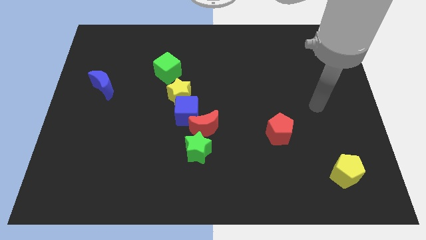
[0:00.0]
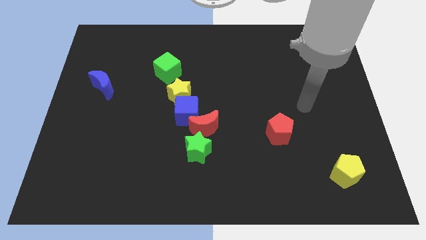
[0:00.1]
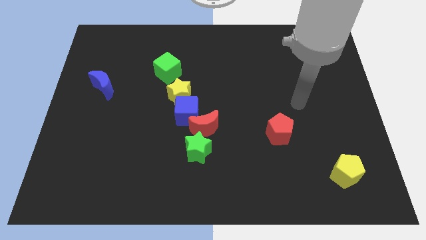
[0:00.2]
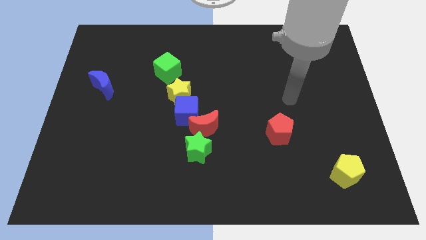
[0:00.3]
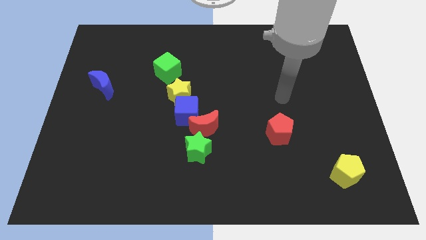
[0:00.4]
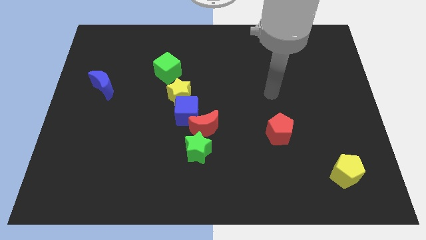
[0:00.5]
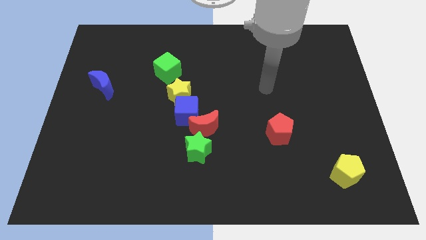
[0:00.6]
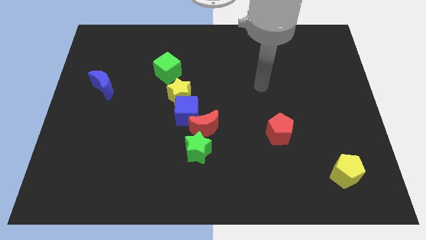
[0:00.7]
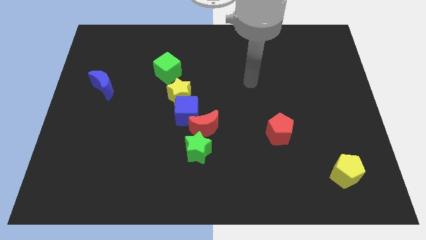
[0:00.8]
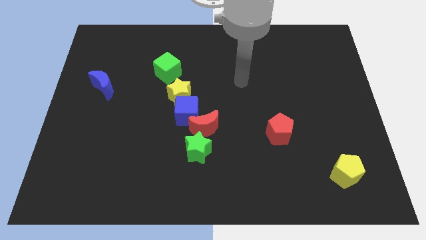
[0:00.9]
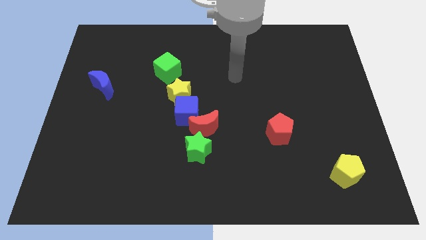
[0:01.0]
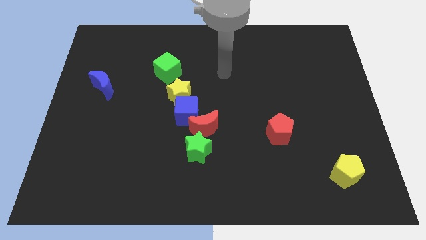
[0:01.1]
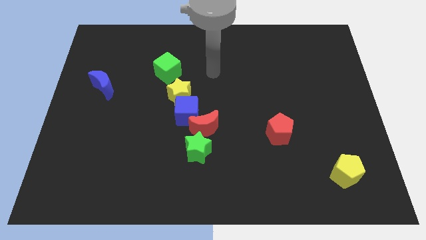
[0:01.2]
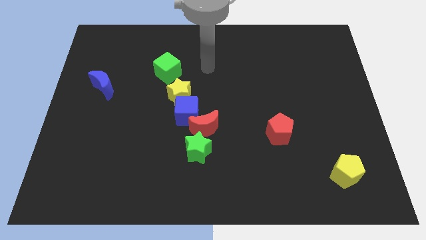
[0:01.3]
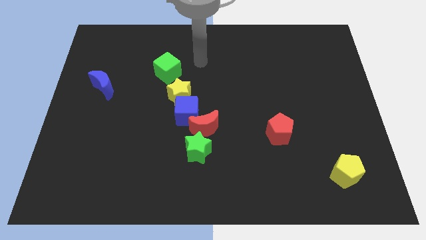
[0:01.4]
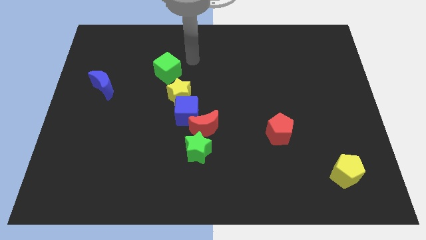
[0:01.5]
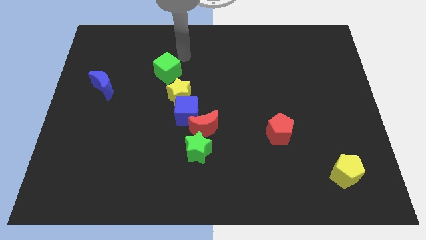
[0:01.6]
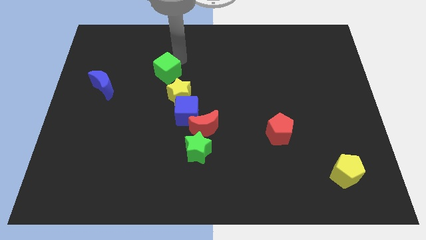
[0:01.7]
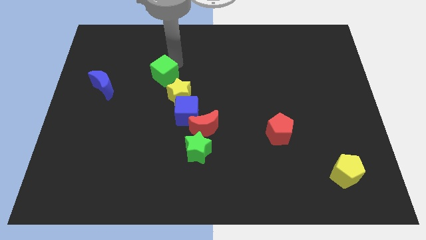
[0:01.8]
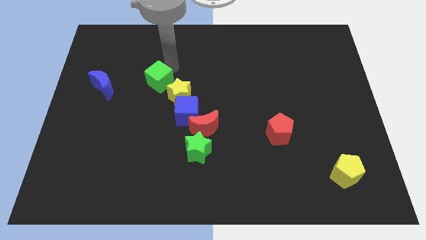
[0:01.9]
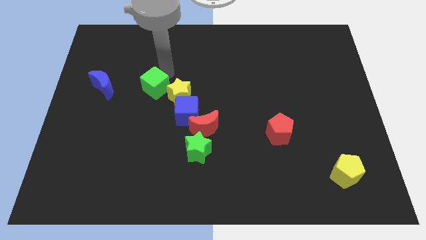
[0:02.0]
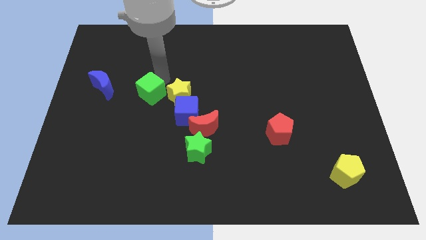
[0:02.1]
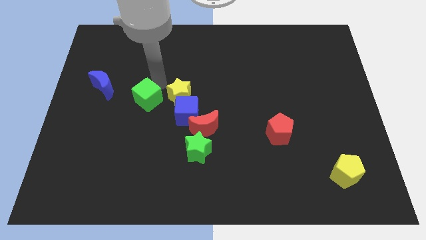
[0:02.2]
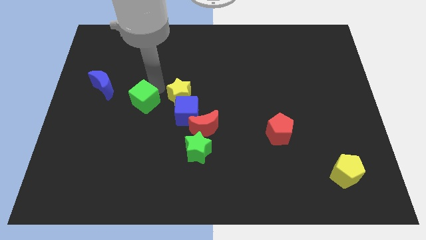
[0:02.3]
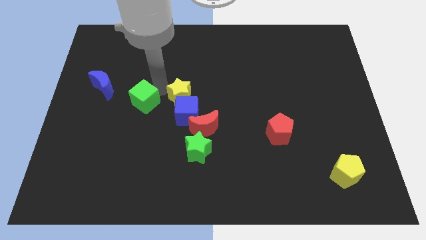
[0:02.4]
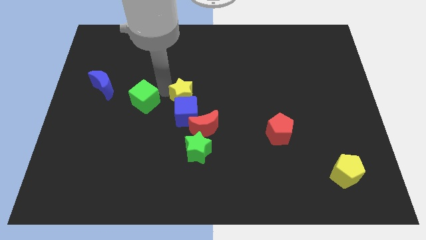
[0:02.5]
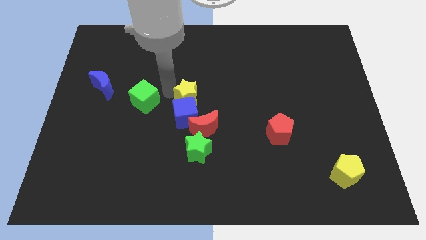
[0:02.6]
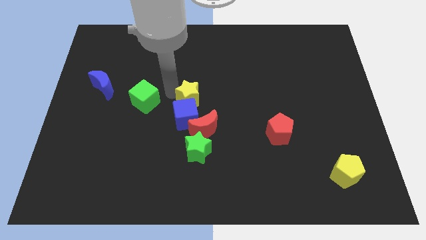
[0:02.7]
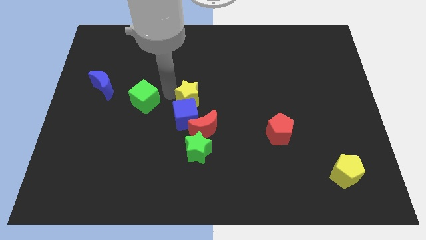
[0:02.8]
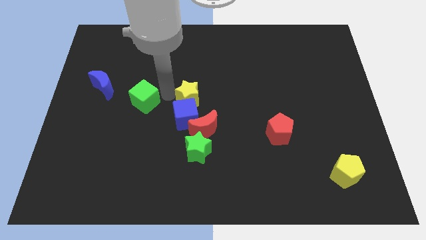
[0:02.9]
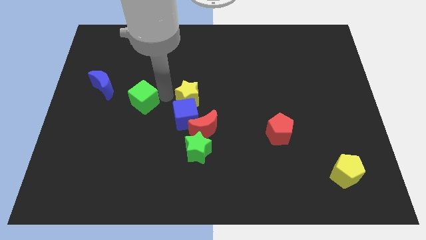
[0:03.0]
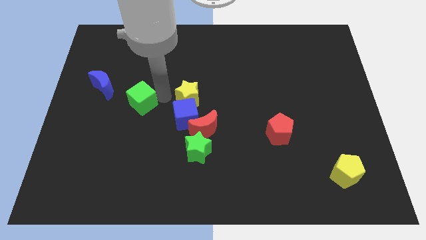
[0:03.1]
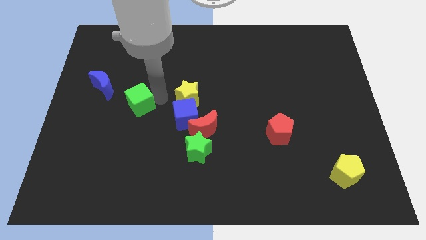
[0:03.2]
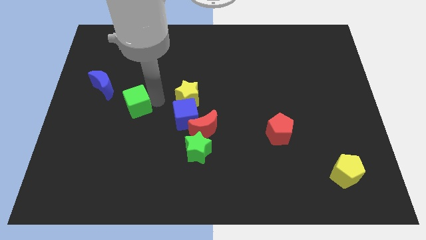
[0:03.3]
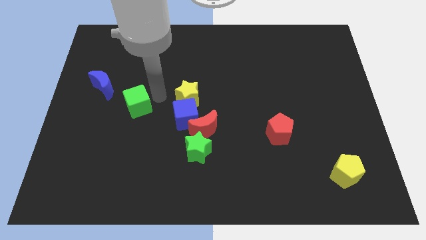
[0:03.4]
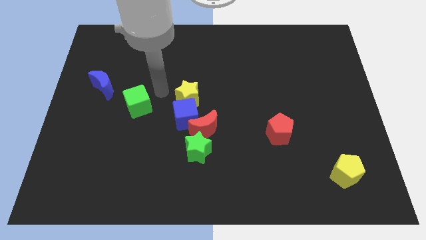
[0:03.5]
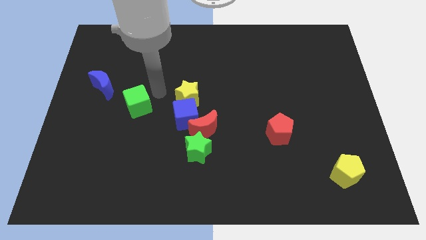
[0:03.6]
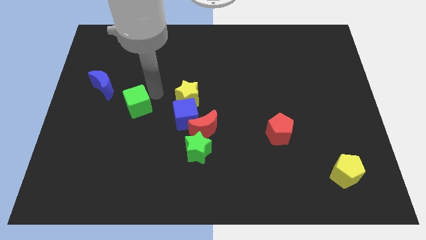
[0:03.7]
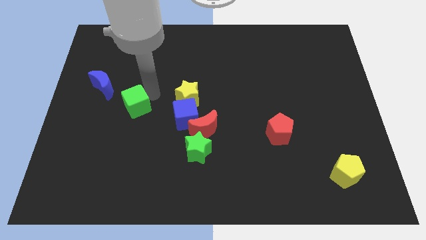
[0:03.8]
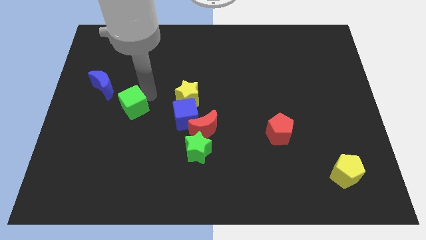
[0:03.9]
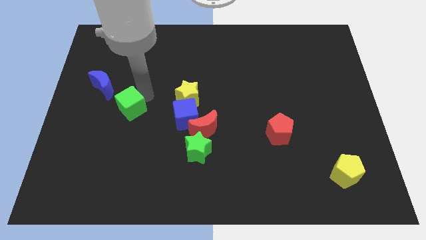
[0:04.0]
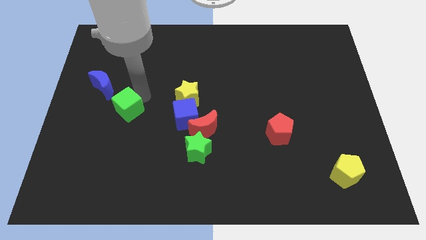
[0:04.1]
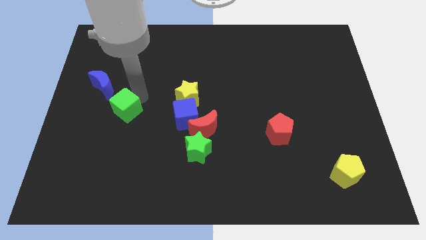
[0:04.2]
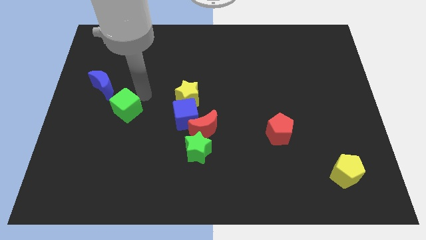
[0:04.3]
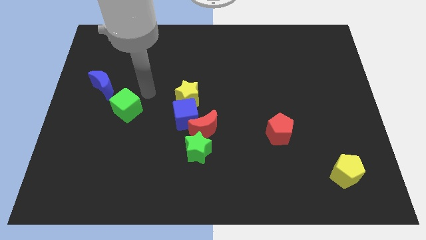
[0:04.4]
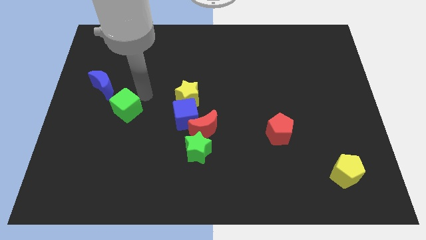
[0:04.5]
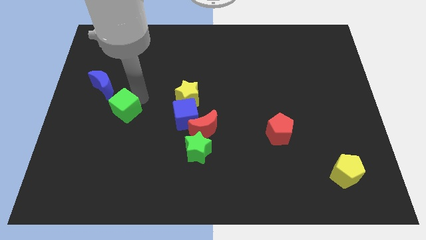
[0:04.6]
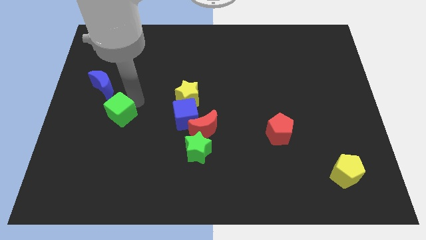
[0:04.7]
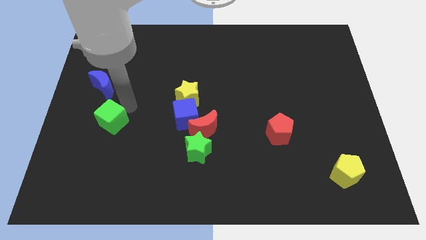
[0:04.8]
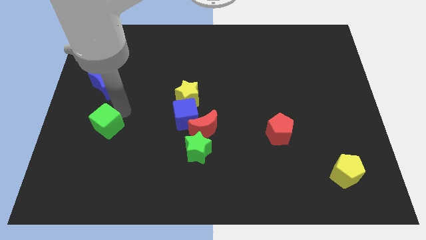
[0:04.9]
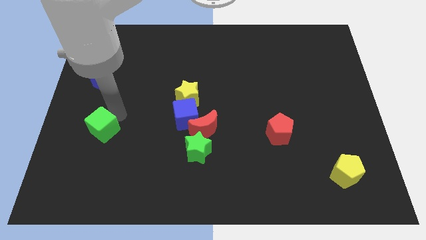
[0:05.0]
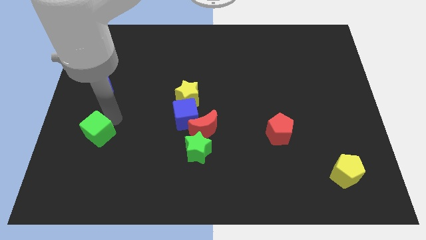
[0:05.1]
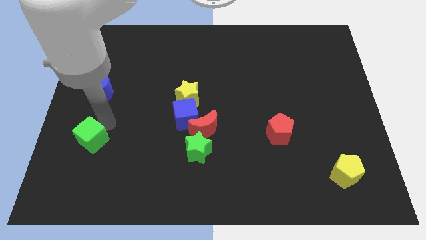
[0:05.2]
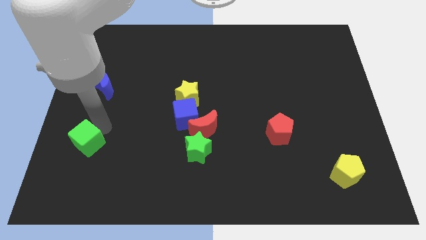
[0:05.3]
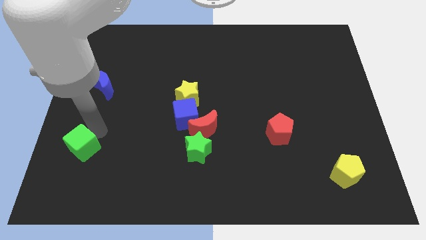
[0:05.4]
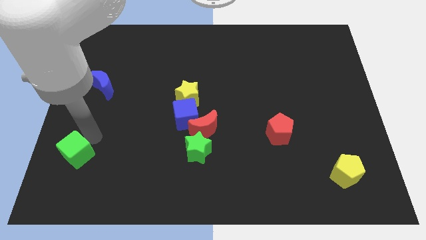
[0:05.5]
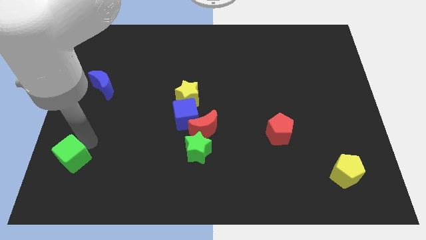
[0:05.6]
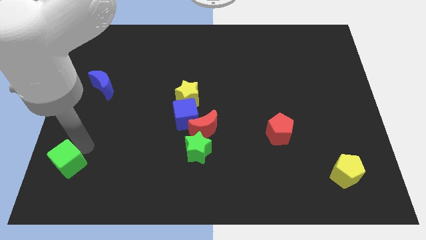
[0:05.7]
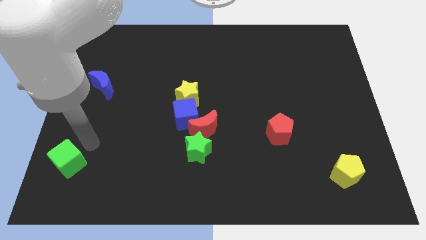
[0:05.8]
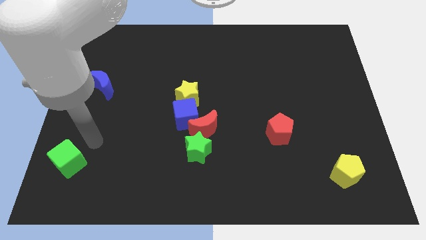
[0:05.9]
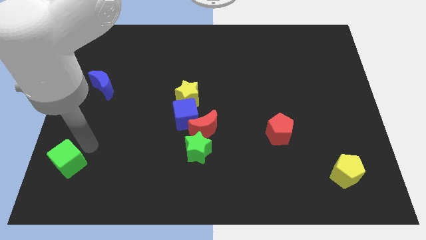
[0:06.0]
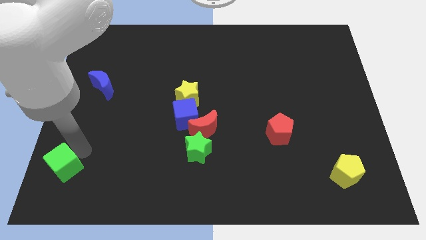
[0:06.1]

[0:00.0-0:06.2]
move the green cube to the bottom left of the board
